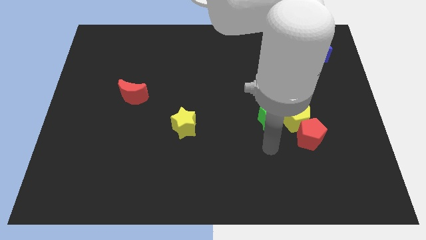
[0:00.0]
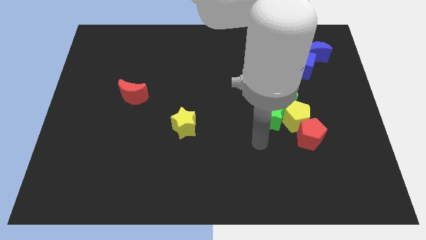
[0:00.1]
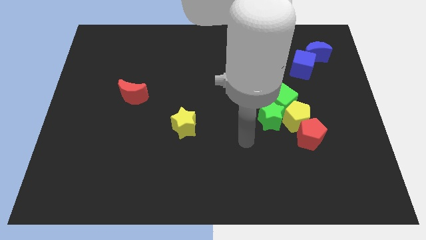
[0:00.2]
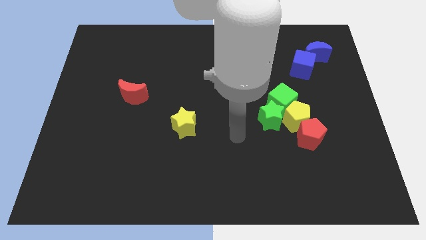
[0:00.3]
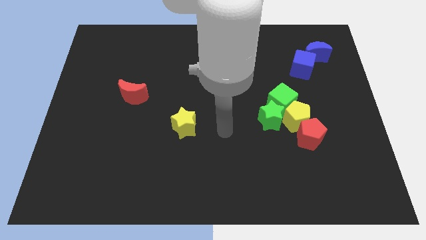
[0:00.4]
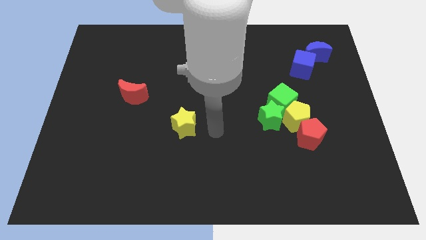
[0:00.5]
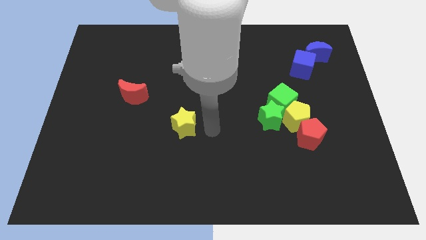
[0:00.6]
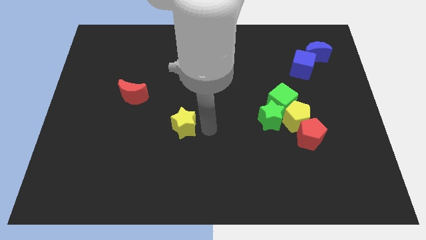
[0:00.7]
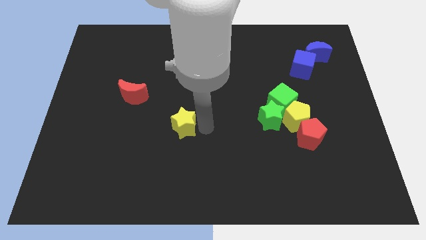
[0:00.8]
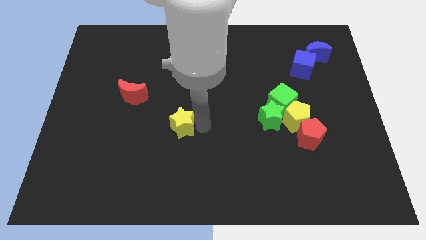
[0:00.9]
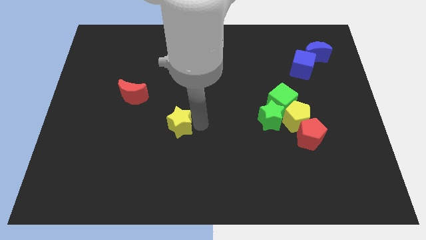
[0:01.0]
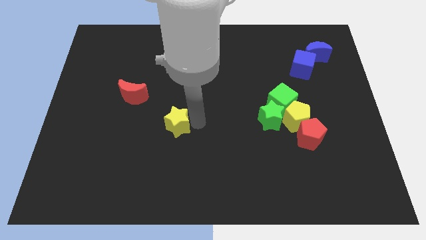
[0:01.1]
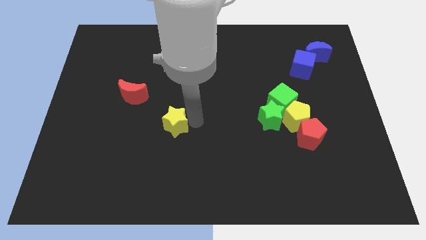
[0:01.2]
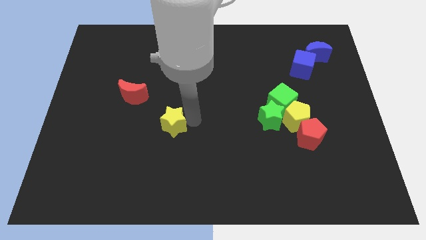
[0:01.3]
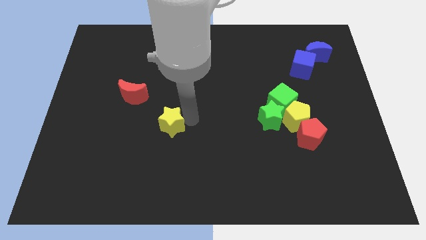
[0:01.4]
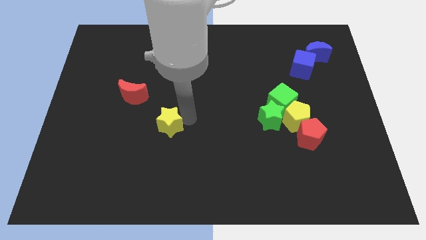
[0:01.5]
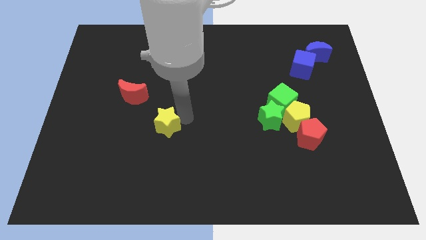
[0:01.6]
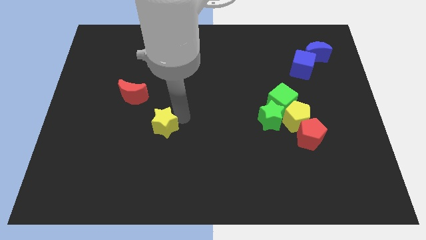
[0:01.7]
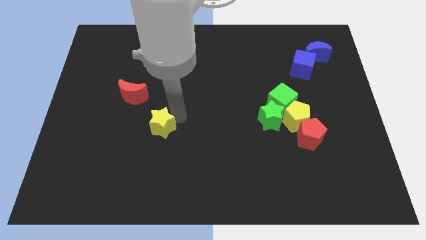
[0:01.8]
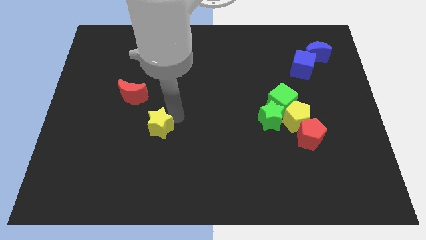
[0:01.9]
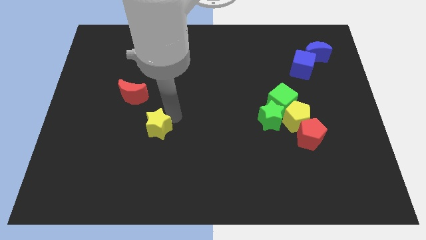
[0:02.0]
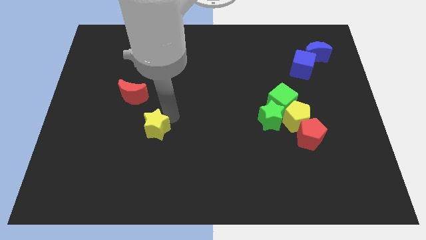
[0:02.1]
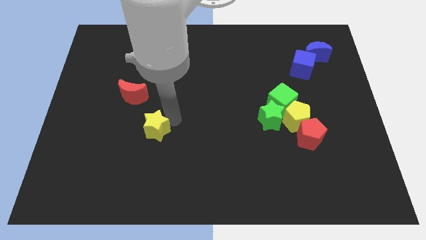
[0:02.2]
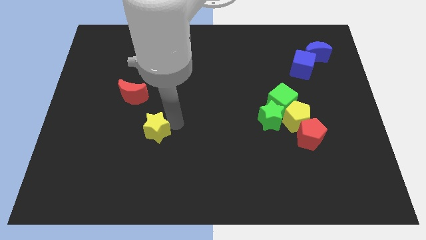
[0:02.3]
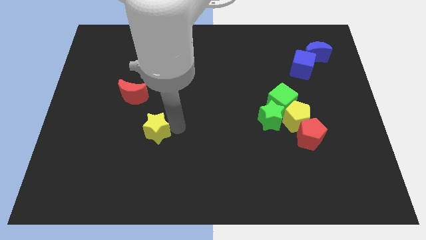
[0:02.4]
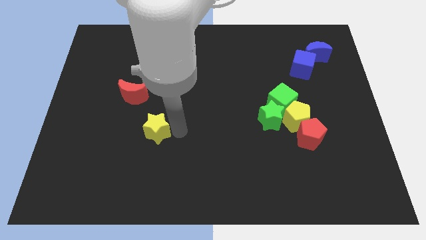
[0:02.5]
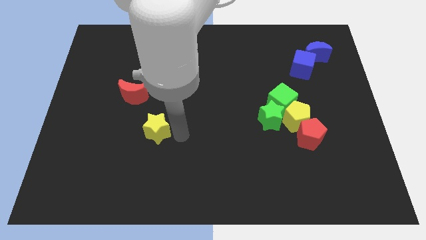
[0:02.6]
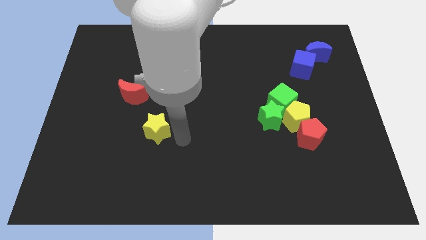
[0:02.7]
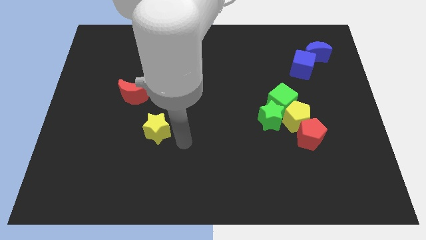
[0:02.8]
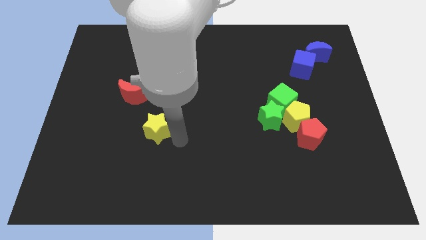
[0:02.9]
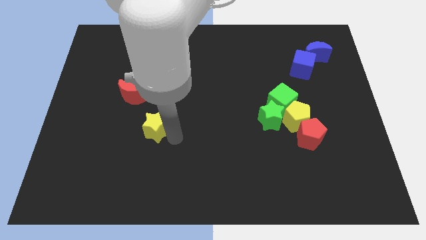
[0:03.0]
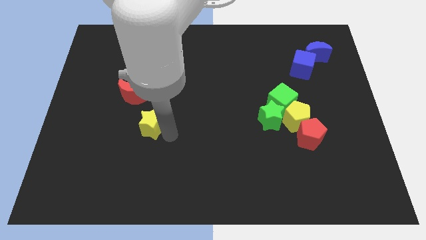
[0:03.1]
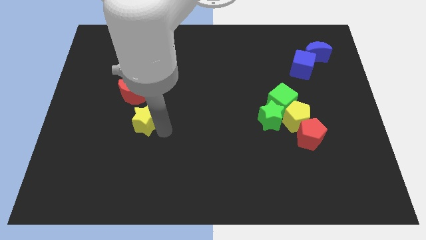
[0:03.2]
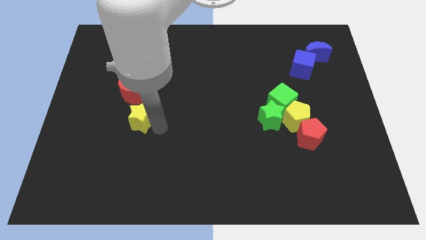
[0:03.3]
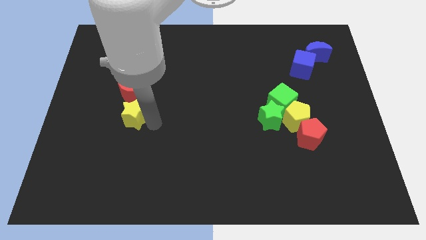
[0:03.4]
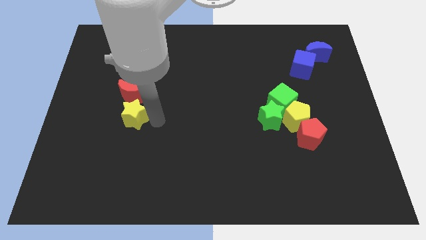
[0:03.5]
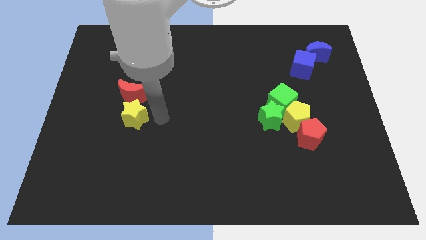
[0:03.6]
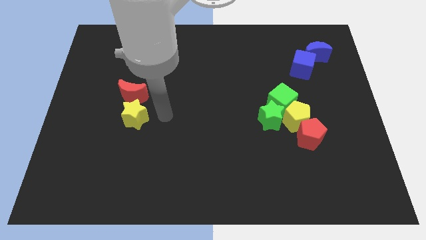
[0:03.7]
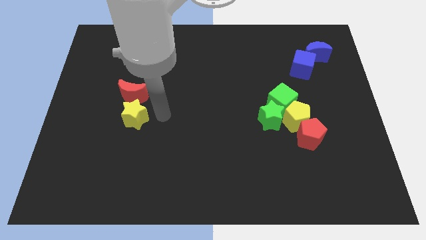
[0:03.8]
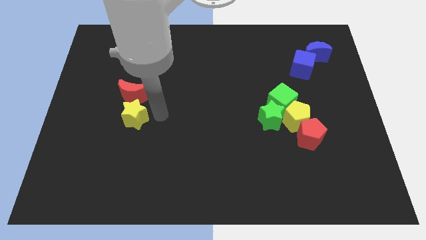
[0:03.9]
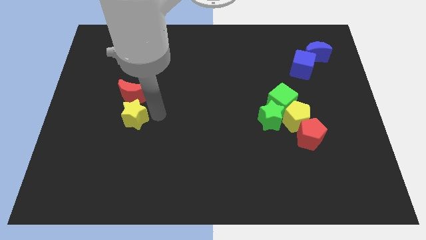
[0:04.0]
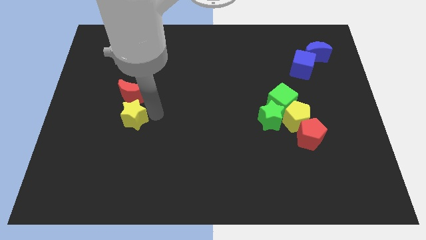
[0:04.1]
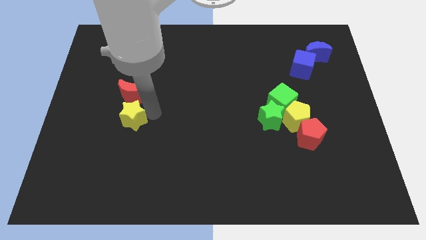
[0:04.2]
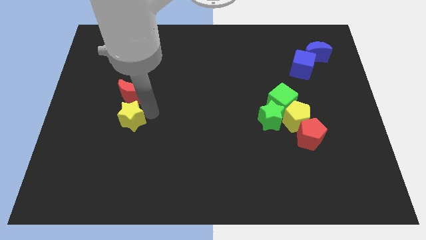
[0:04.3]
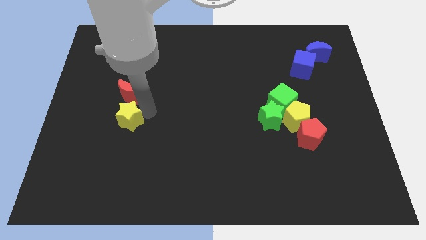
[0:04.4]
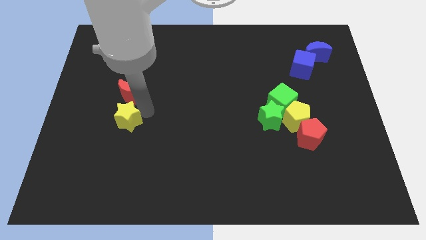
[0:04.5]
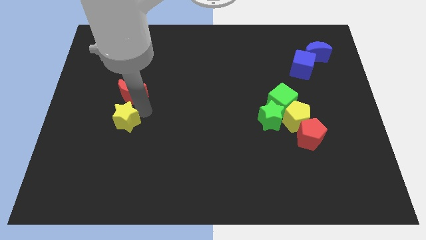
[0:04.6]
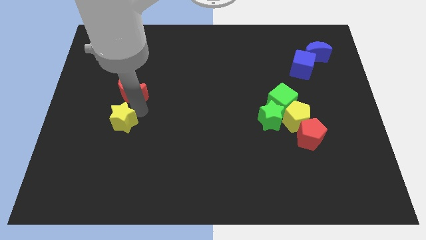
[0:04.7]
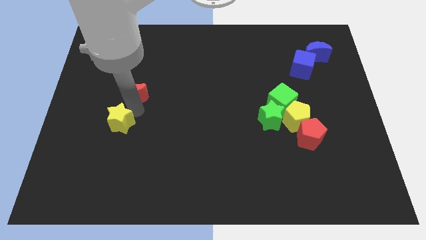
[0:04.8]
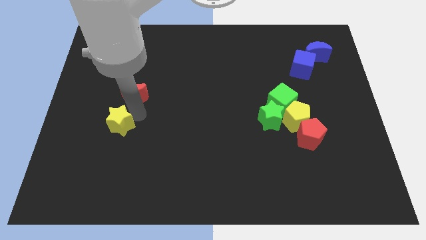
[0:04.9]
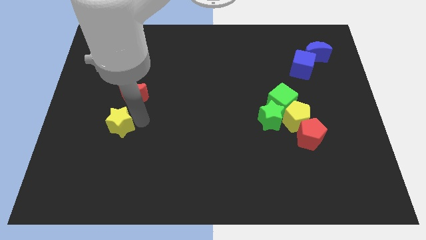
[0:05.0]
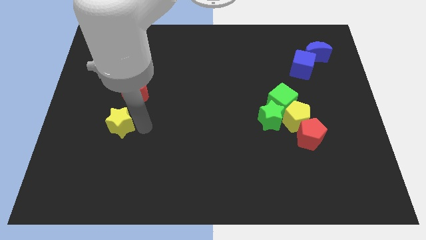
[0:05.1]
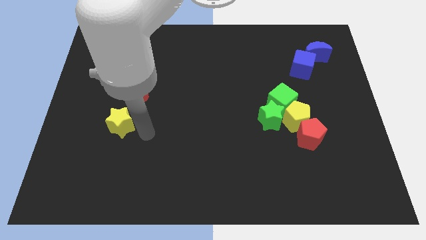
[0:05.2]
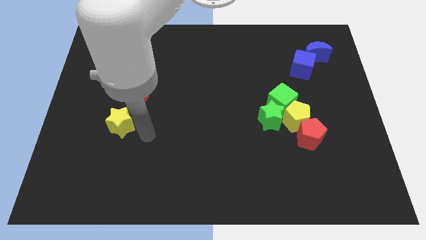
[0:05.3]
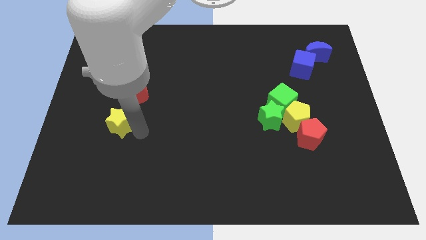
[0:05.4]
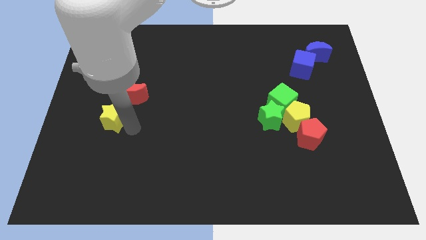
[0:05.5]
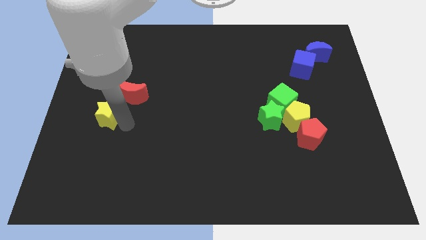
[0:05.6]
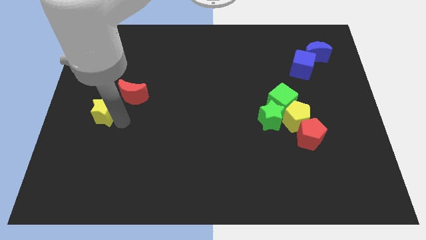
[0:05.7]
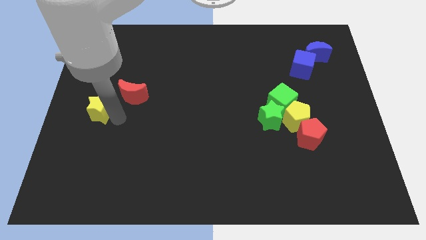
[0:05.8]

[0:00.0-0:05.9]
move the yellow star to the left side

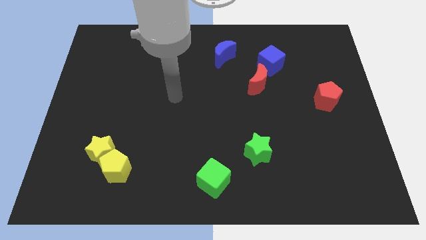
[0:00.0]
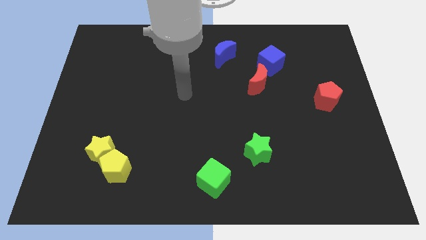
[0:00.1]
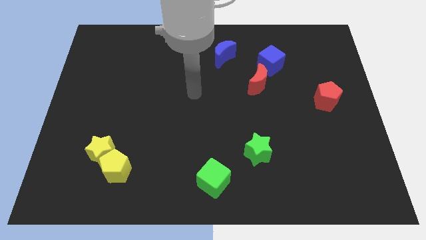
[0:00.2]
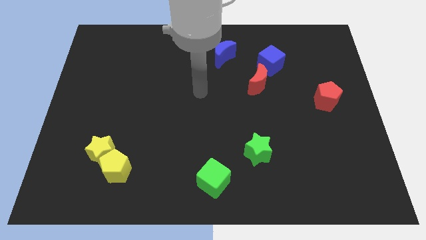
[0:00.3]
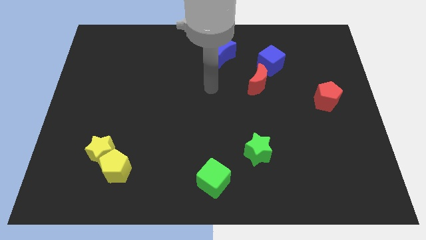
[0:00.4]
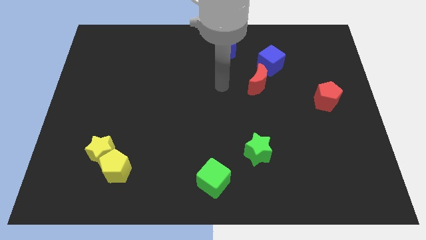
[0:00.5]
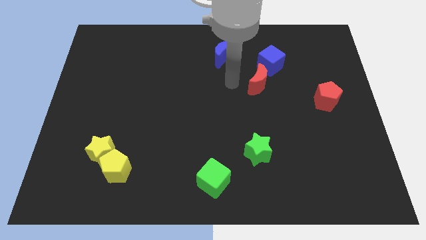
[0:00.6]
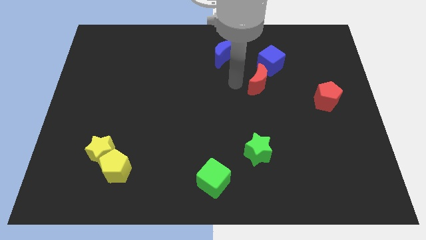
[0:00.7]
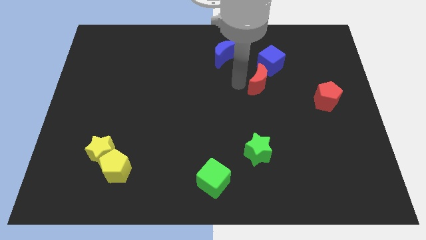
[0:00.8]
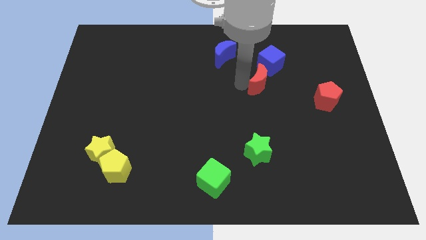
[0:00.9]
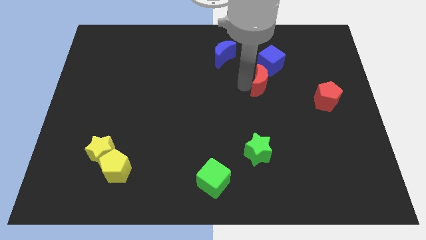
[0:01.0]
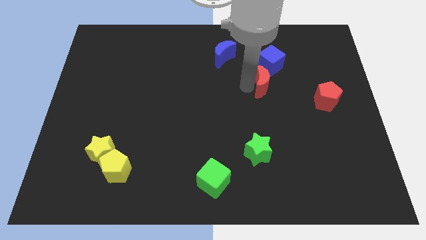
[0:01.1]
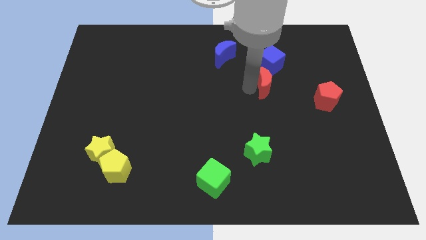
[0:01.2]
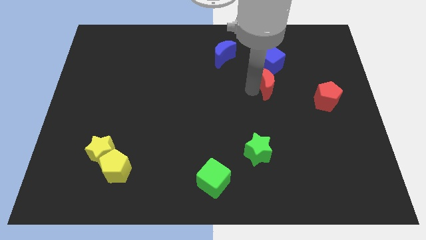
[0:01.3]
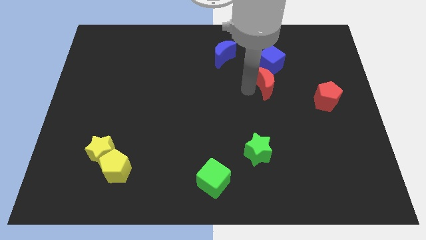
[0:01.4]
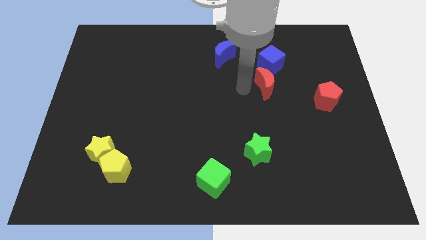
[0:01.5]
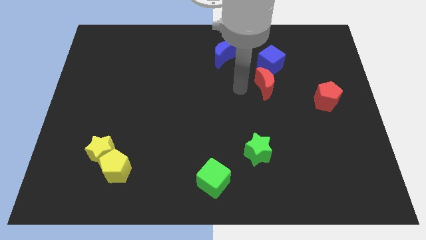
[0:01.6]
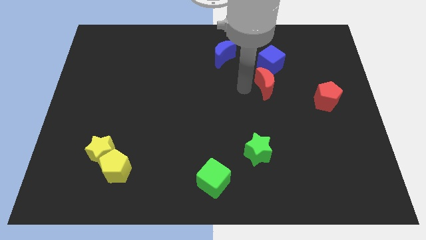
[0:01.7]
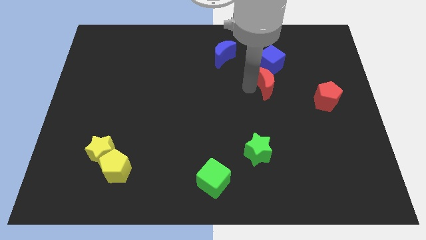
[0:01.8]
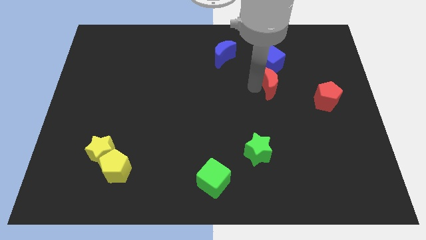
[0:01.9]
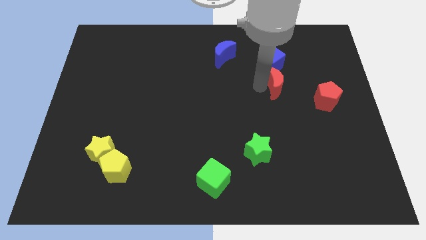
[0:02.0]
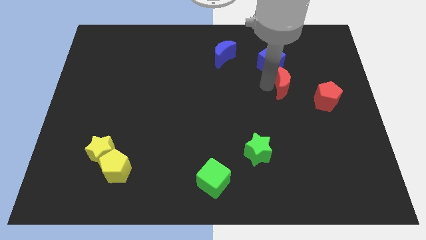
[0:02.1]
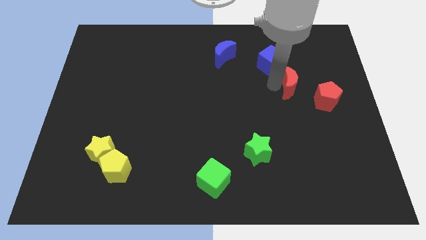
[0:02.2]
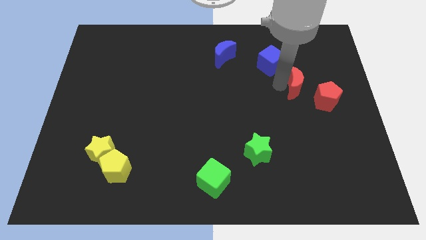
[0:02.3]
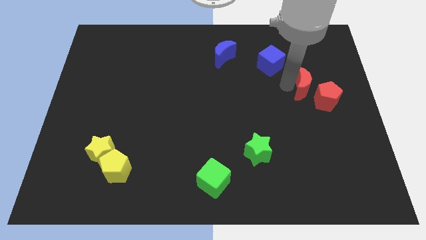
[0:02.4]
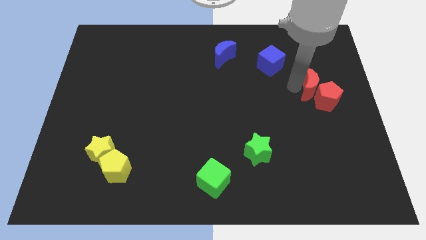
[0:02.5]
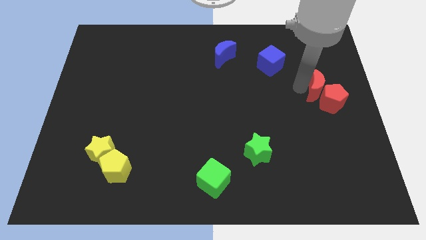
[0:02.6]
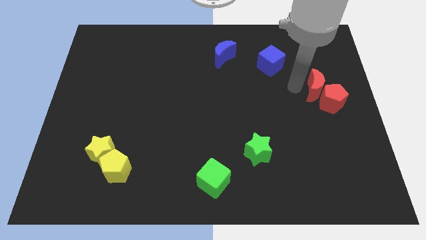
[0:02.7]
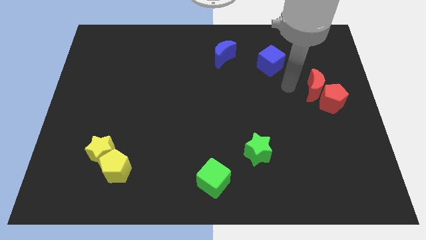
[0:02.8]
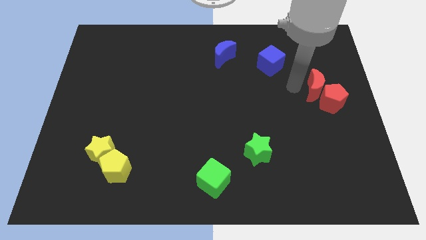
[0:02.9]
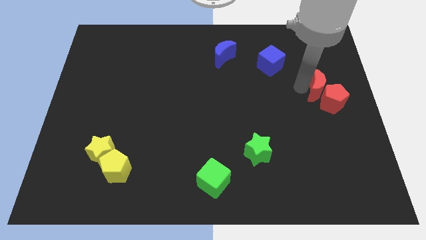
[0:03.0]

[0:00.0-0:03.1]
put the red moon to the right side of the board
